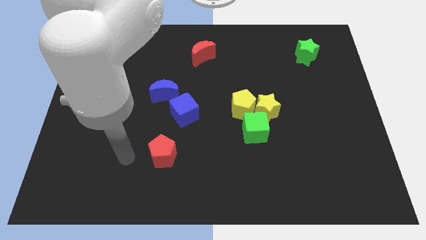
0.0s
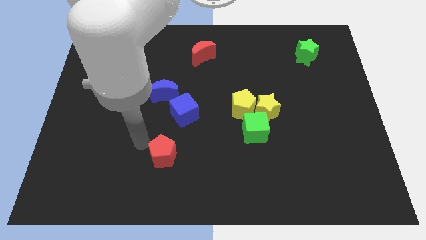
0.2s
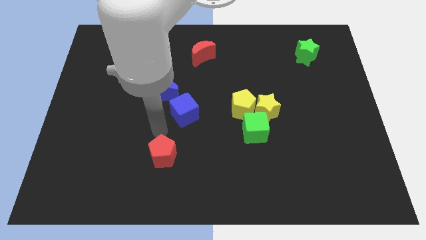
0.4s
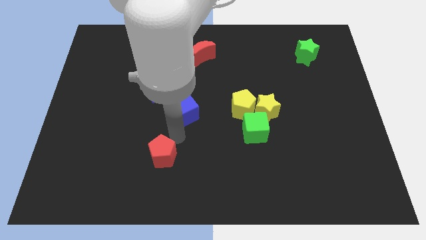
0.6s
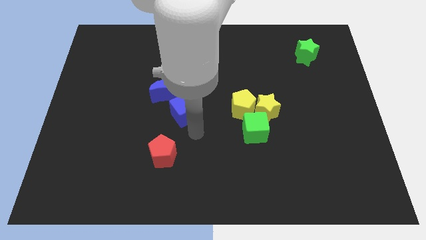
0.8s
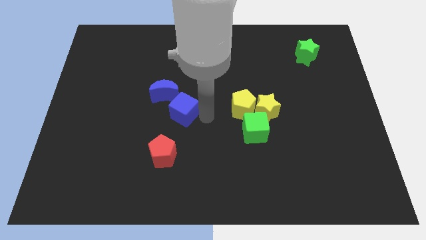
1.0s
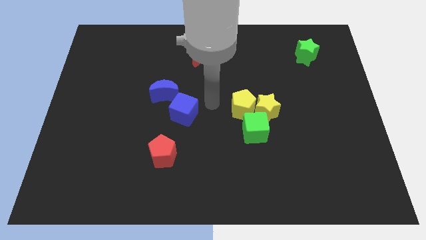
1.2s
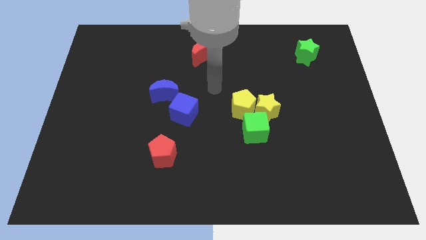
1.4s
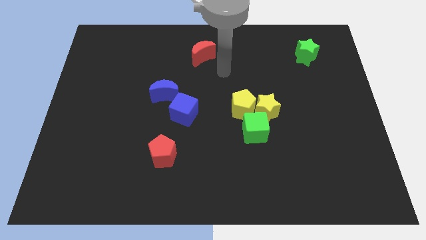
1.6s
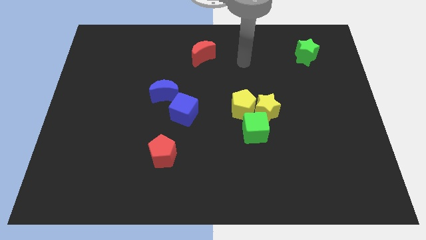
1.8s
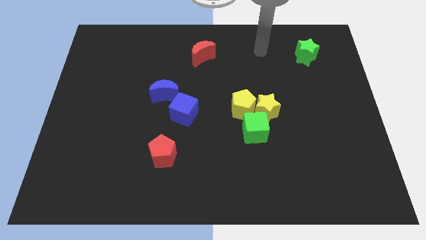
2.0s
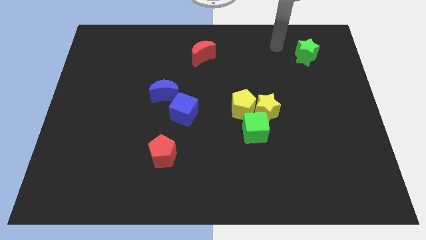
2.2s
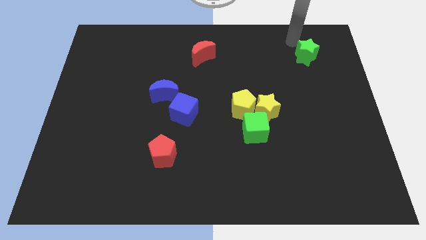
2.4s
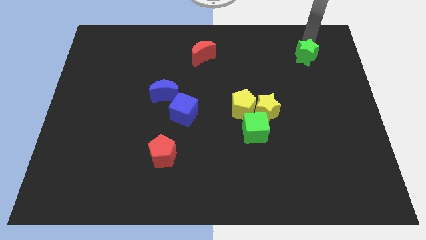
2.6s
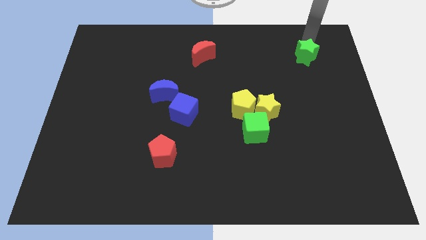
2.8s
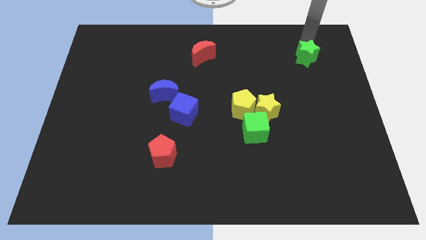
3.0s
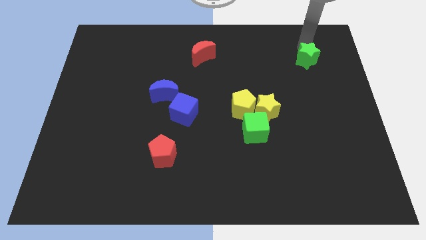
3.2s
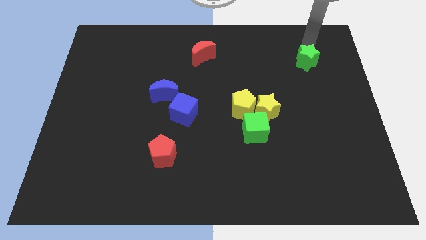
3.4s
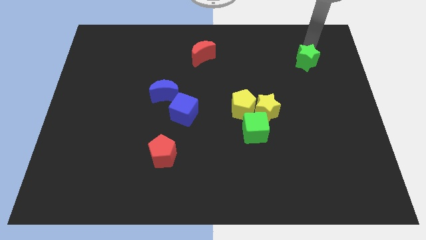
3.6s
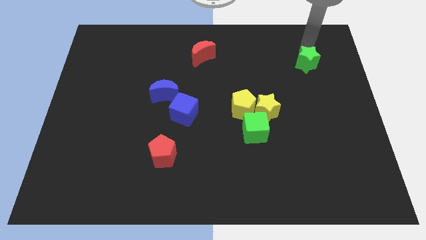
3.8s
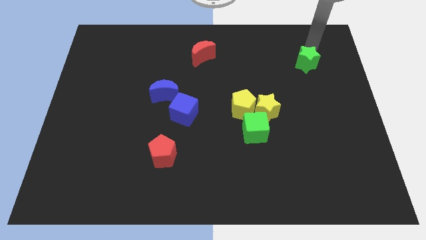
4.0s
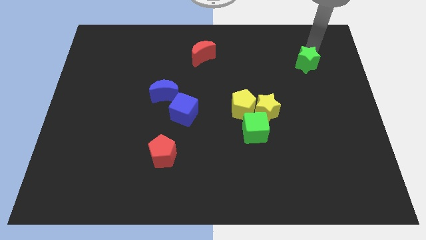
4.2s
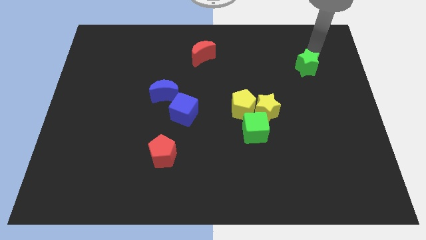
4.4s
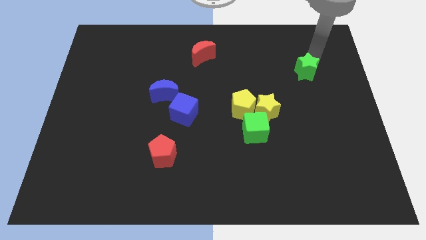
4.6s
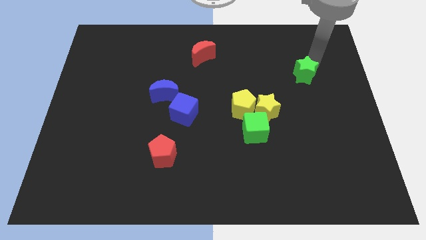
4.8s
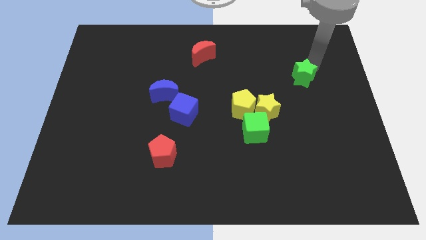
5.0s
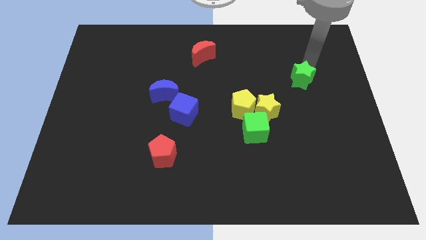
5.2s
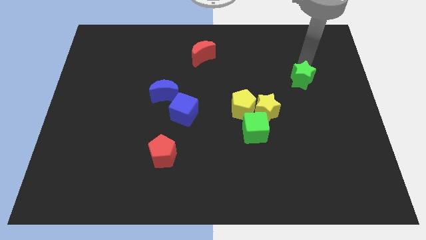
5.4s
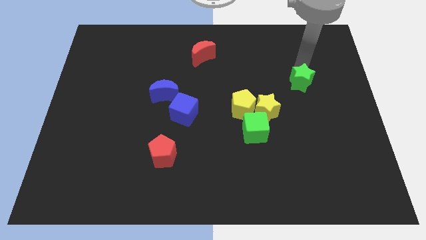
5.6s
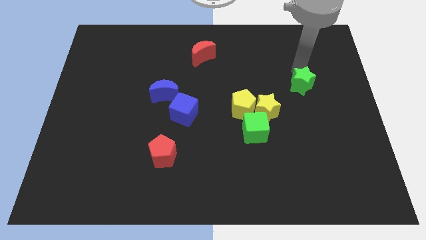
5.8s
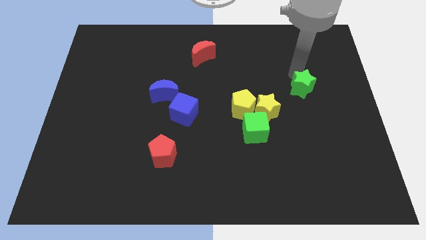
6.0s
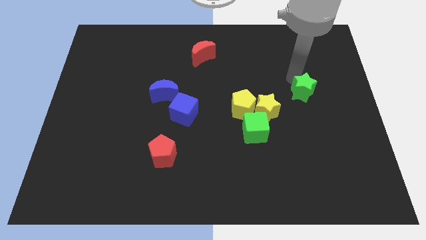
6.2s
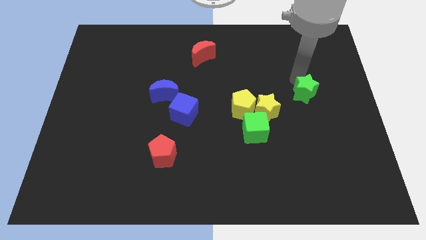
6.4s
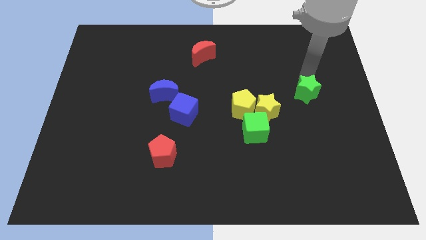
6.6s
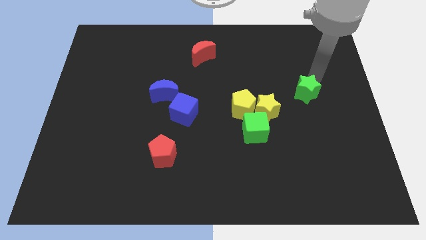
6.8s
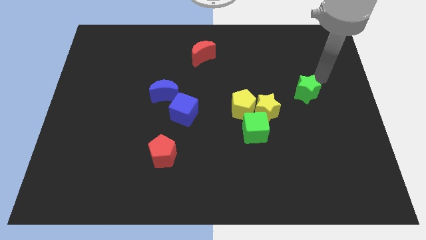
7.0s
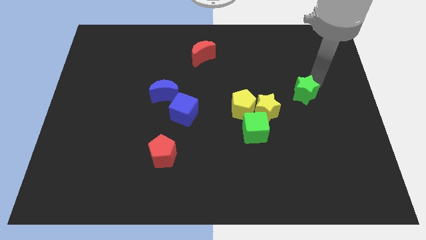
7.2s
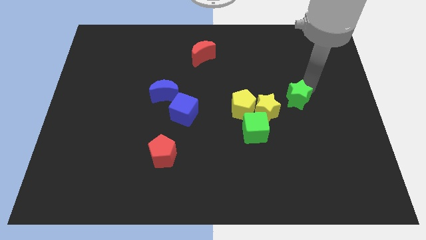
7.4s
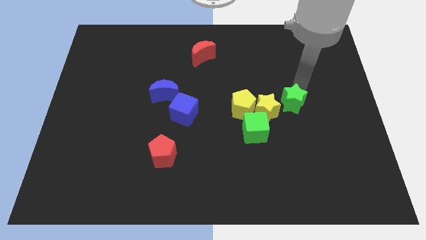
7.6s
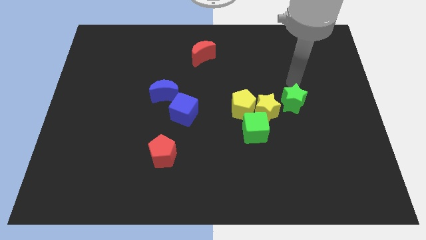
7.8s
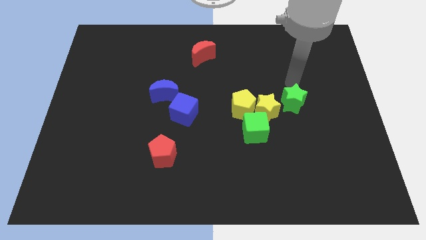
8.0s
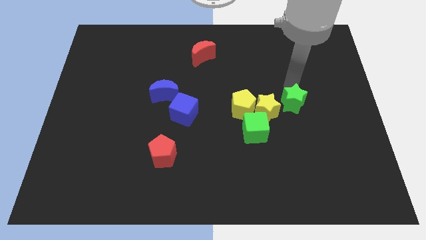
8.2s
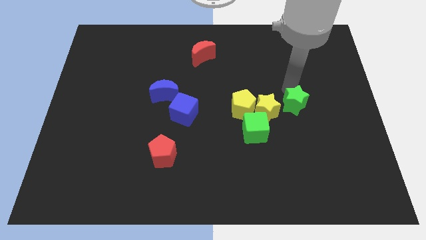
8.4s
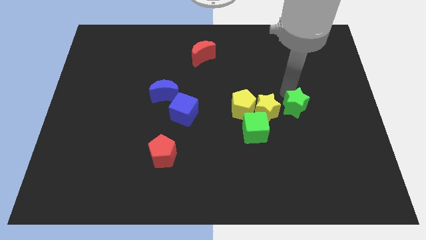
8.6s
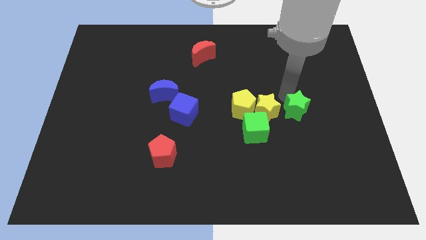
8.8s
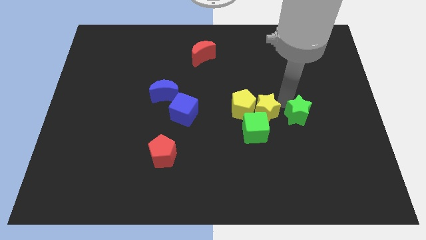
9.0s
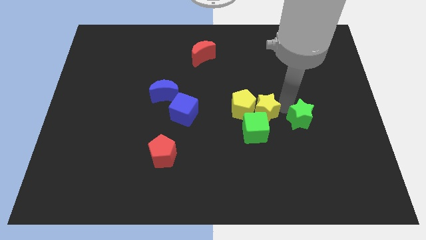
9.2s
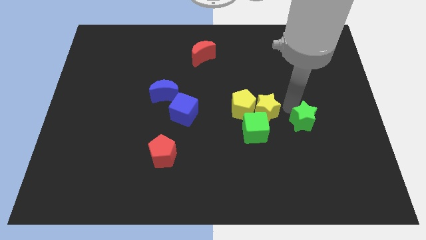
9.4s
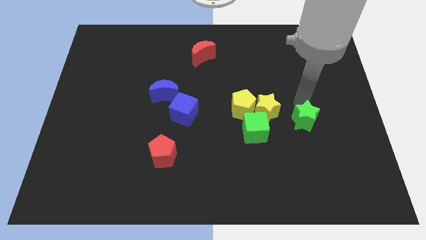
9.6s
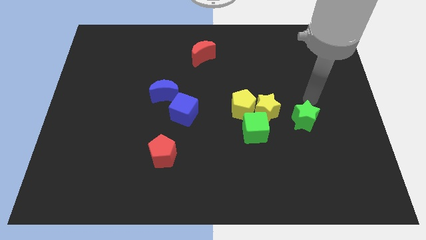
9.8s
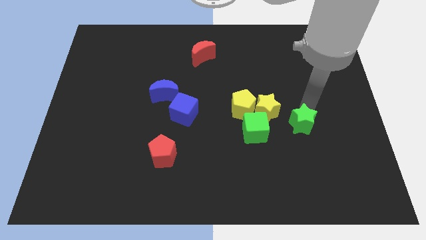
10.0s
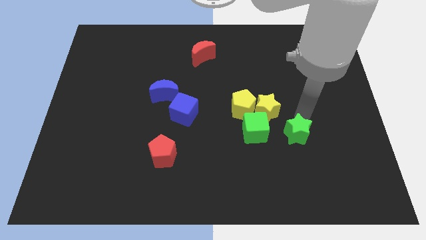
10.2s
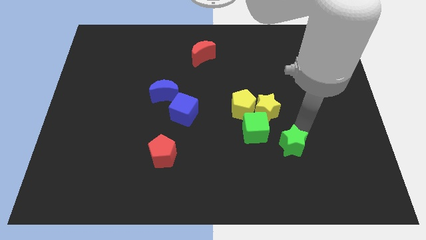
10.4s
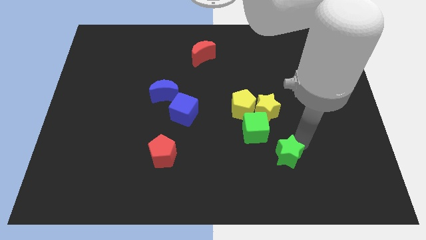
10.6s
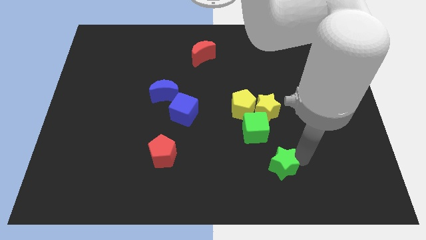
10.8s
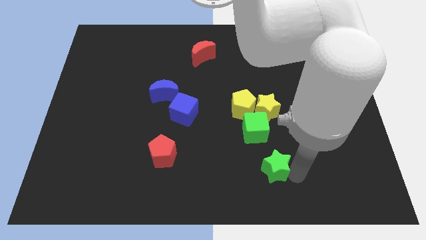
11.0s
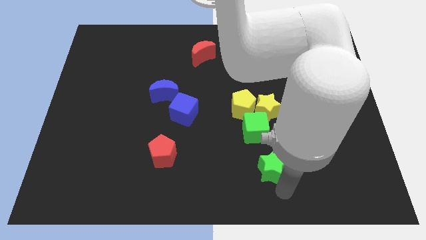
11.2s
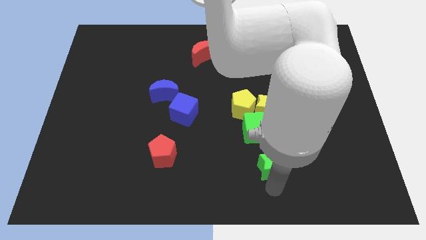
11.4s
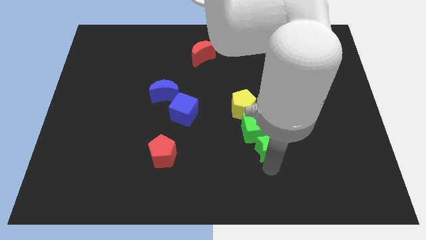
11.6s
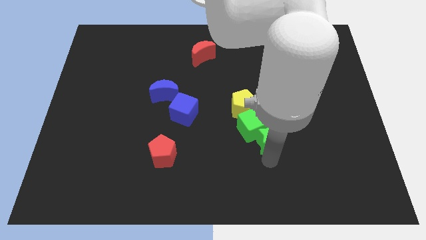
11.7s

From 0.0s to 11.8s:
put the green star to the bottom right of the yellow pentagon

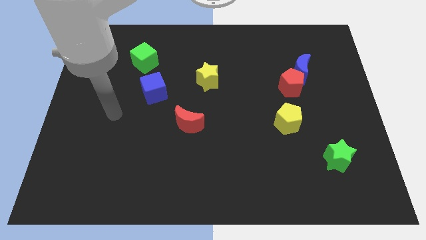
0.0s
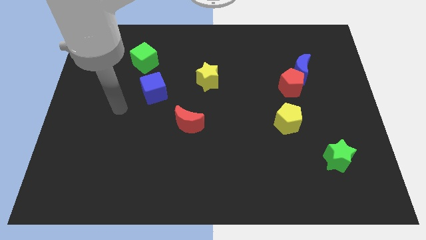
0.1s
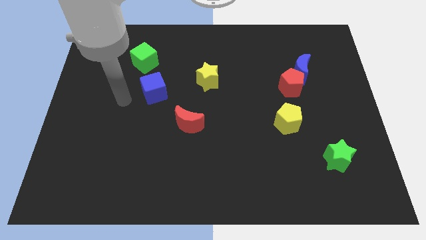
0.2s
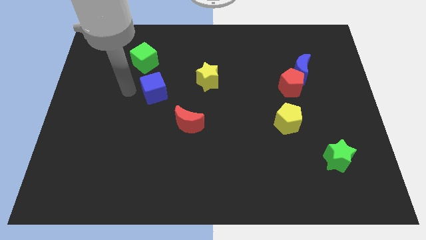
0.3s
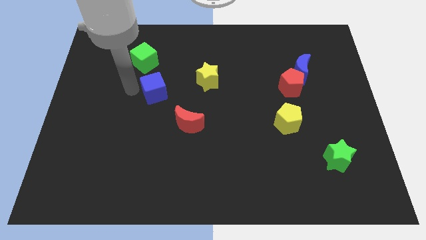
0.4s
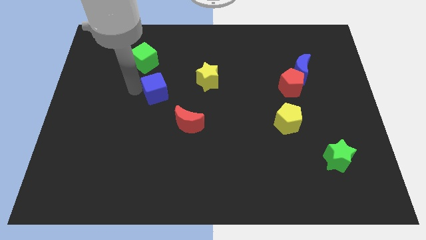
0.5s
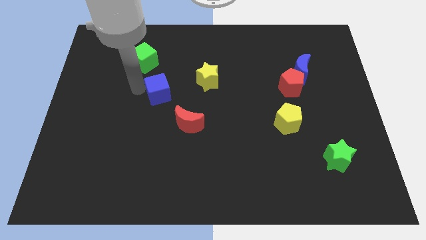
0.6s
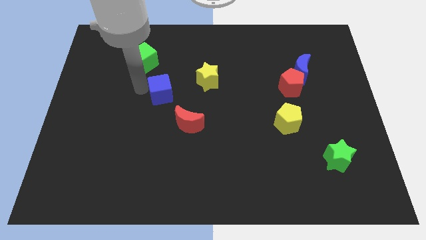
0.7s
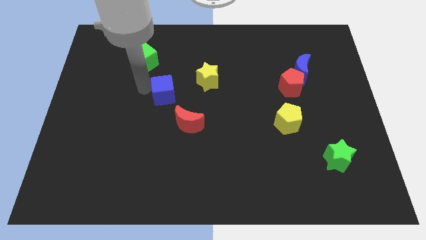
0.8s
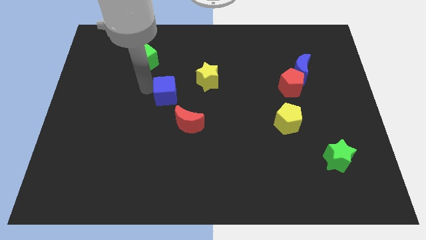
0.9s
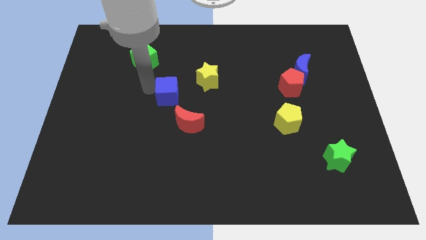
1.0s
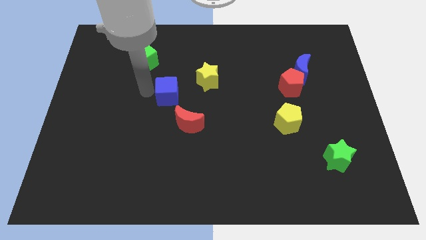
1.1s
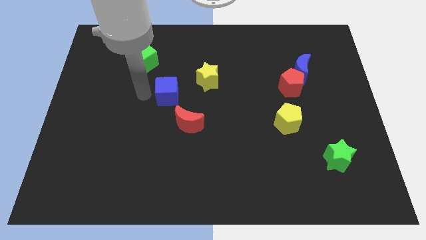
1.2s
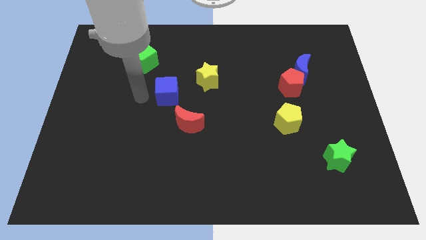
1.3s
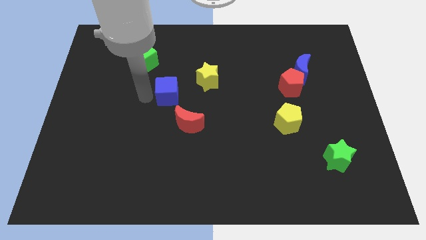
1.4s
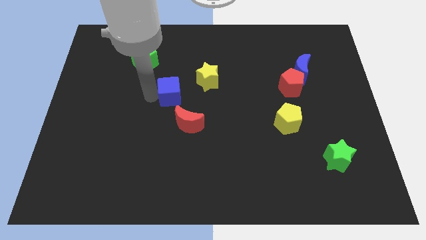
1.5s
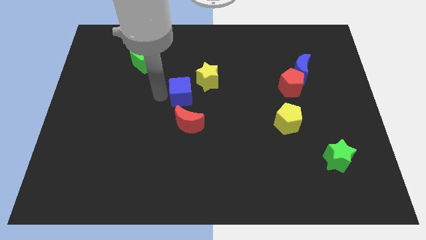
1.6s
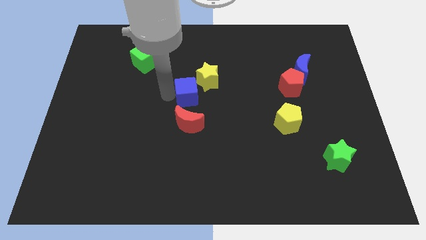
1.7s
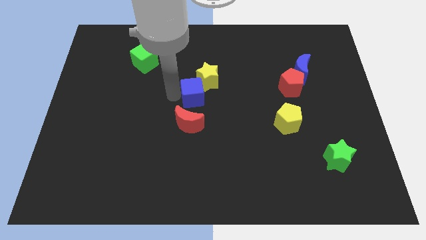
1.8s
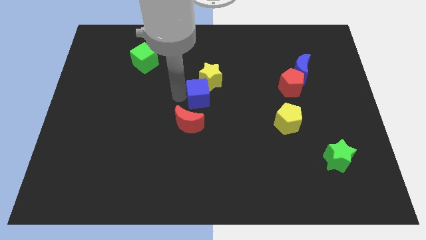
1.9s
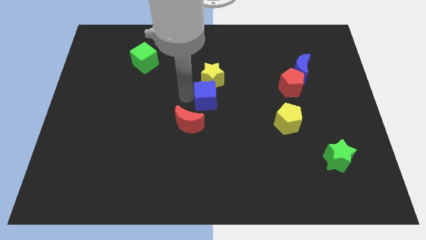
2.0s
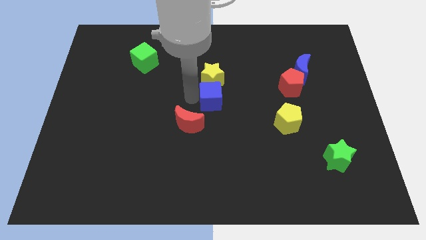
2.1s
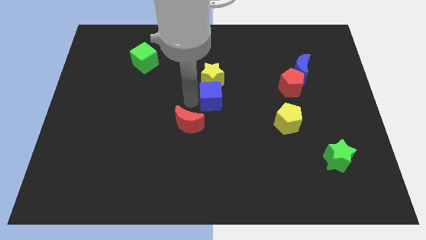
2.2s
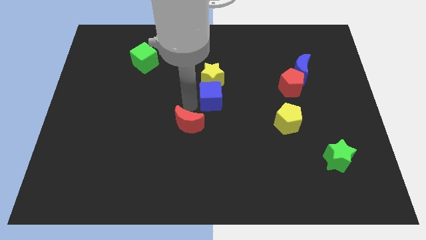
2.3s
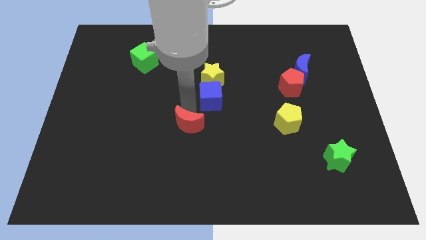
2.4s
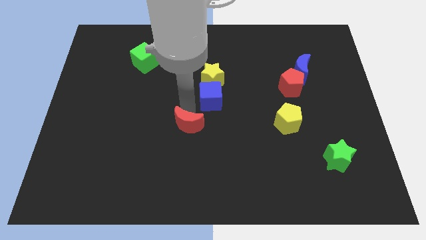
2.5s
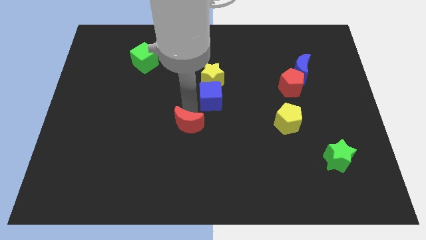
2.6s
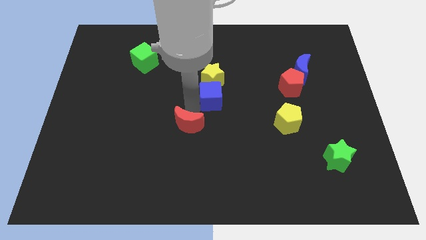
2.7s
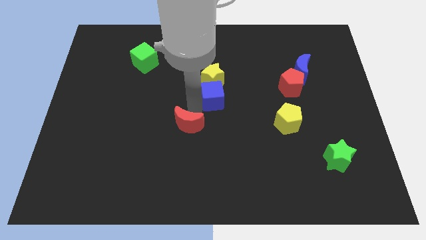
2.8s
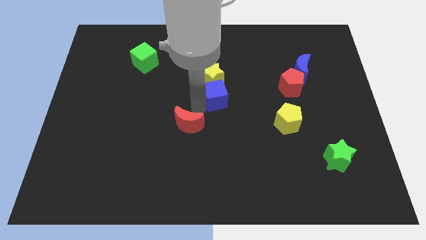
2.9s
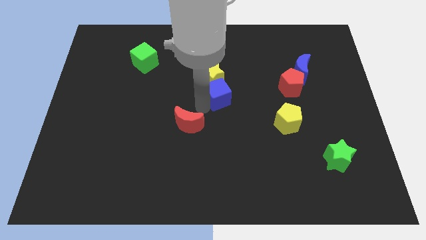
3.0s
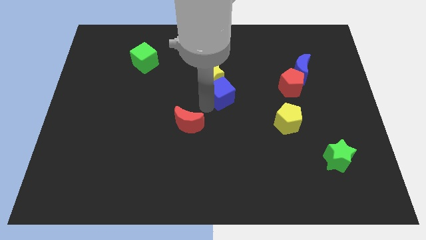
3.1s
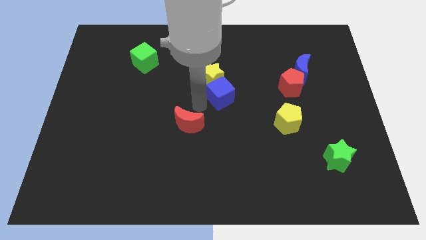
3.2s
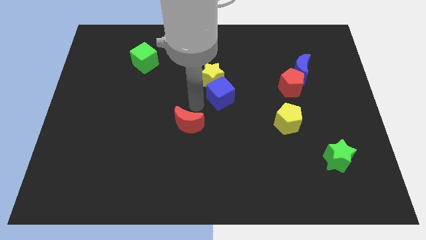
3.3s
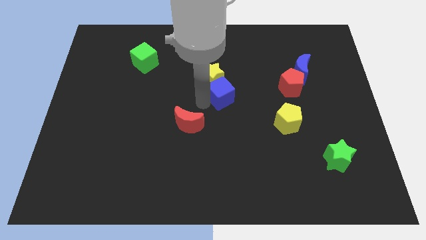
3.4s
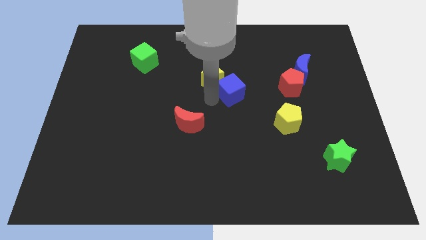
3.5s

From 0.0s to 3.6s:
slide the blue cube to the left side of the red pentagon
